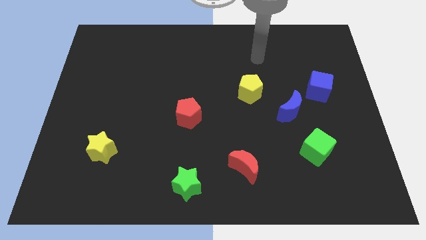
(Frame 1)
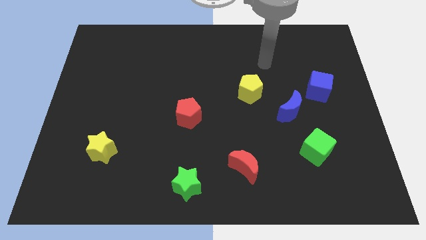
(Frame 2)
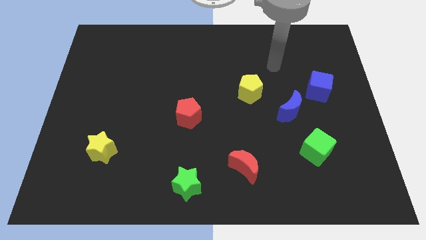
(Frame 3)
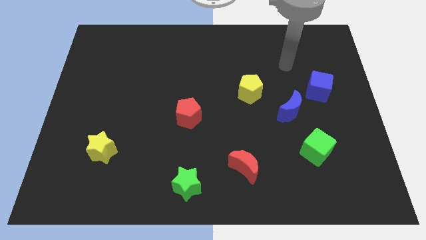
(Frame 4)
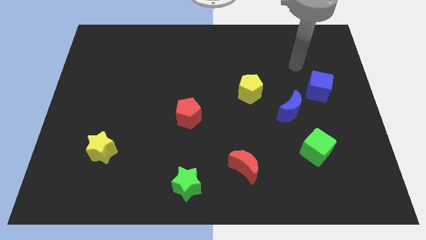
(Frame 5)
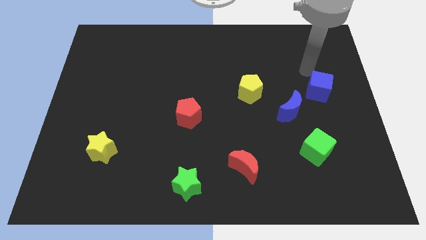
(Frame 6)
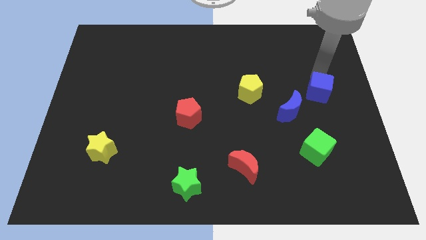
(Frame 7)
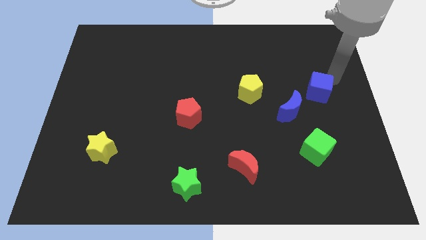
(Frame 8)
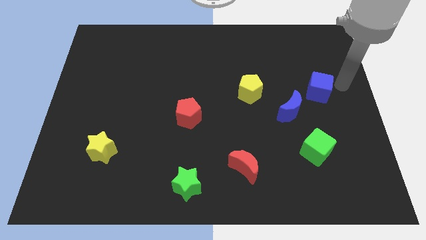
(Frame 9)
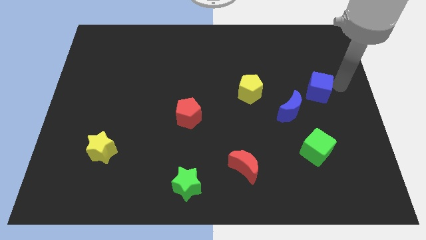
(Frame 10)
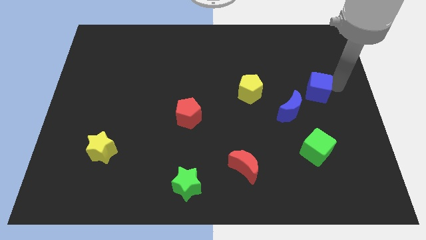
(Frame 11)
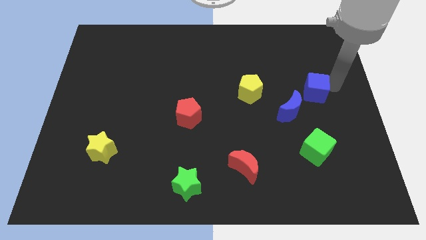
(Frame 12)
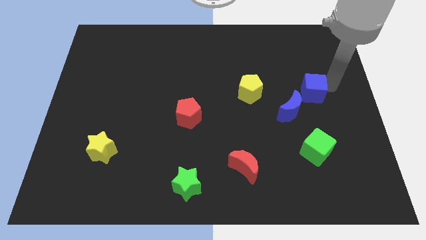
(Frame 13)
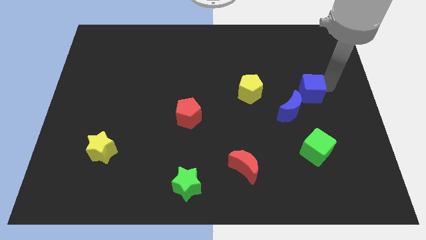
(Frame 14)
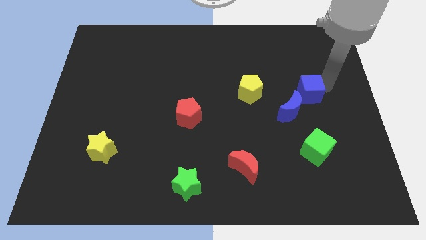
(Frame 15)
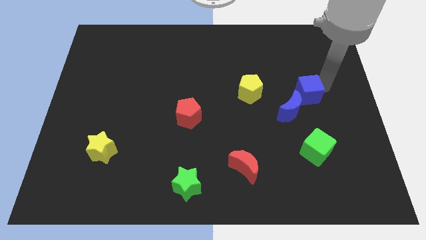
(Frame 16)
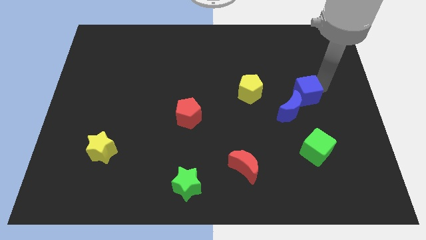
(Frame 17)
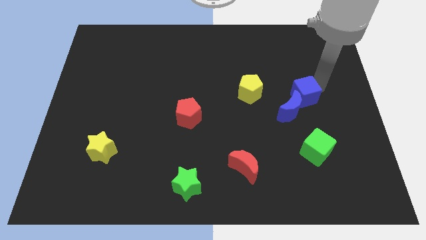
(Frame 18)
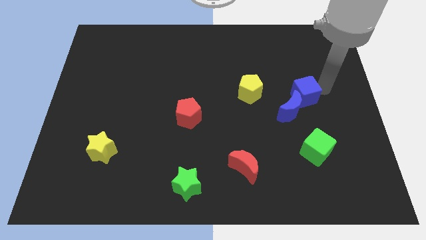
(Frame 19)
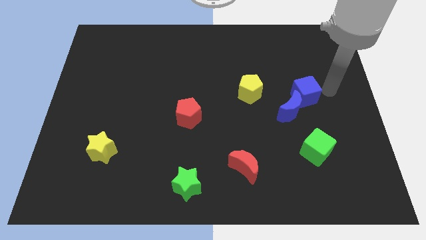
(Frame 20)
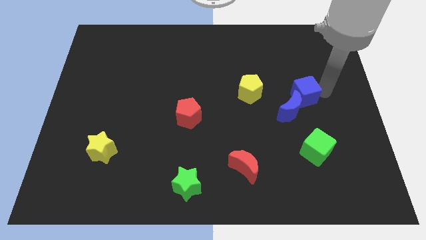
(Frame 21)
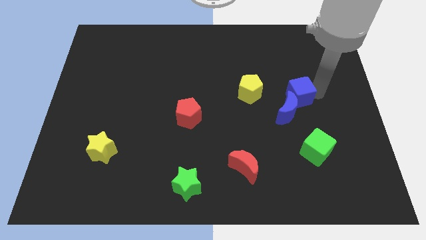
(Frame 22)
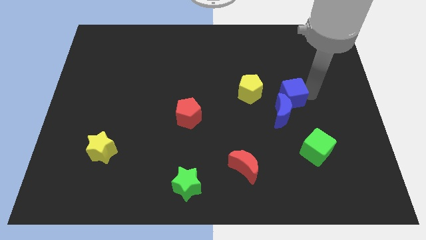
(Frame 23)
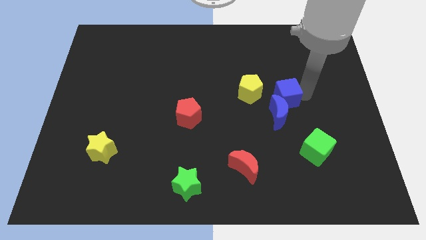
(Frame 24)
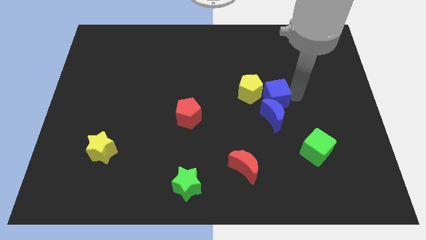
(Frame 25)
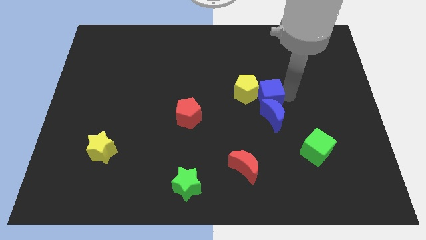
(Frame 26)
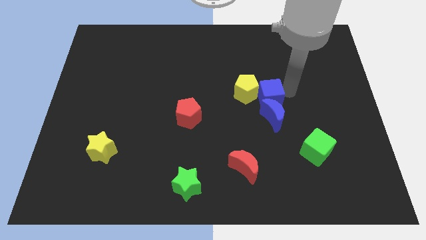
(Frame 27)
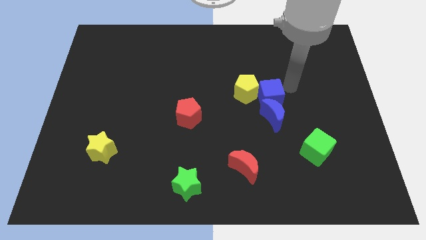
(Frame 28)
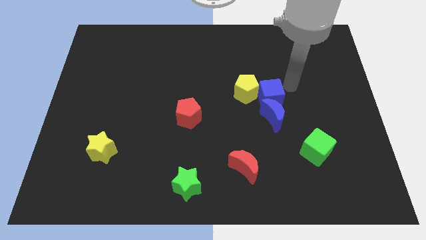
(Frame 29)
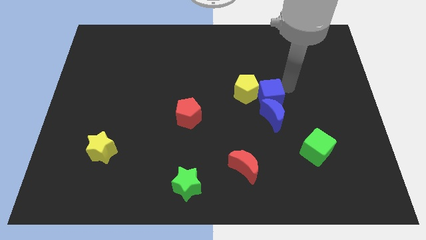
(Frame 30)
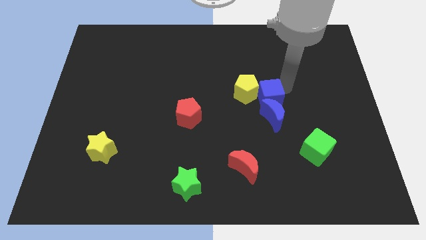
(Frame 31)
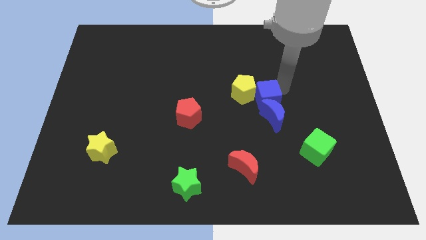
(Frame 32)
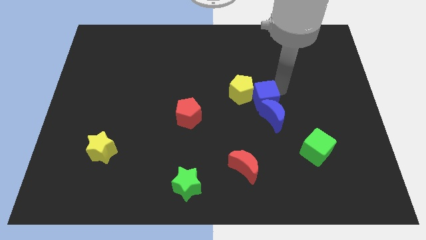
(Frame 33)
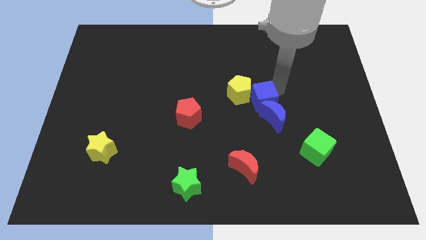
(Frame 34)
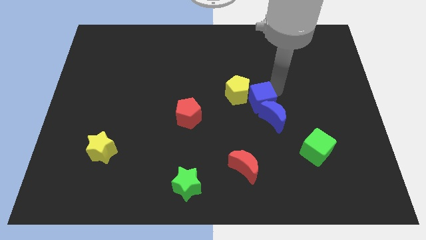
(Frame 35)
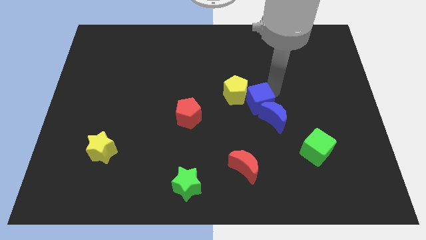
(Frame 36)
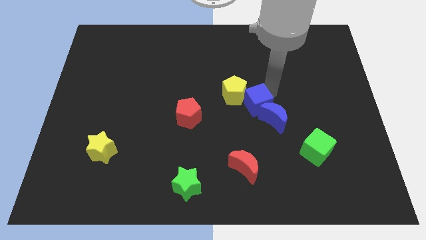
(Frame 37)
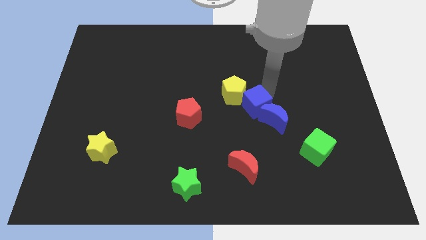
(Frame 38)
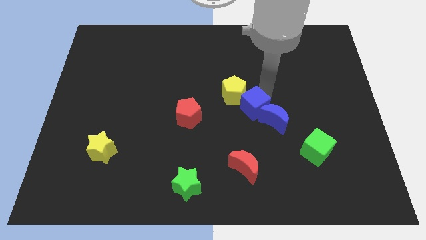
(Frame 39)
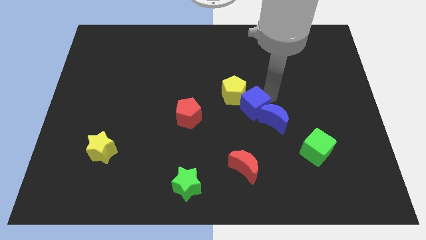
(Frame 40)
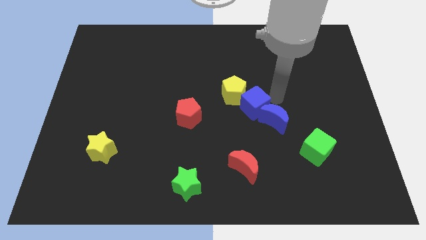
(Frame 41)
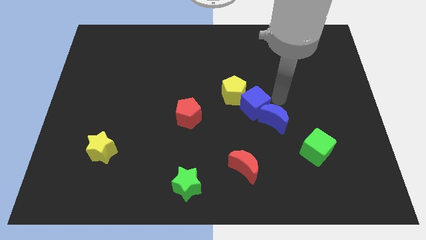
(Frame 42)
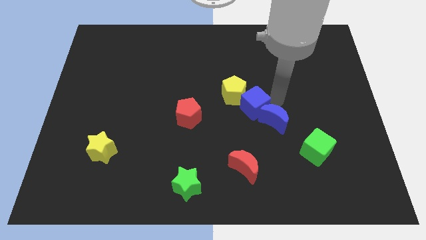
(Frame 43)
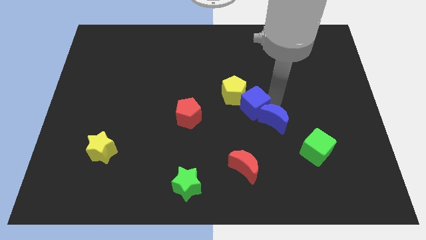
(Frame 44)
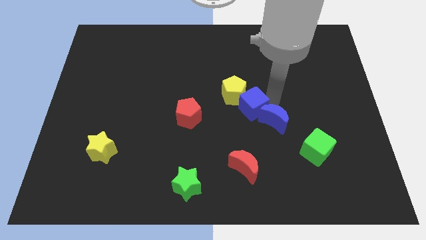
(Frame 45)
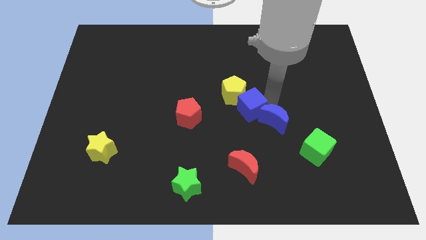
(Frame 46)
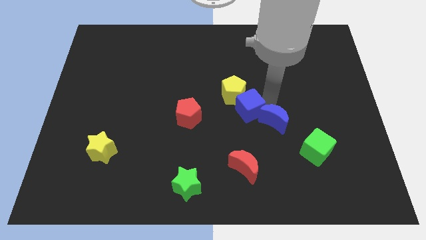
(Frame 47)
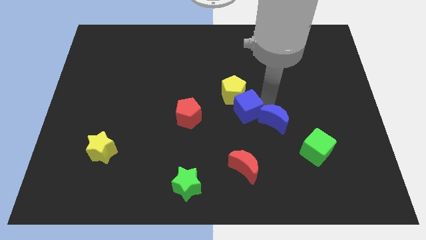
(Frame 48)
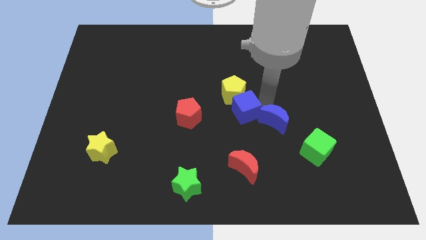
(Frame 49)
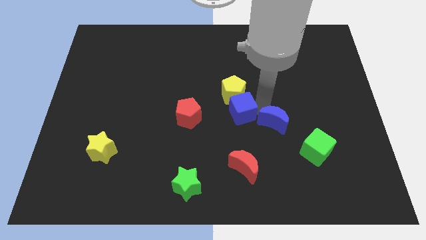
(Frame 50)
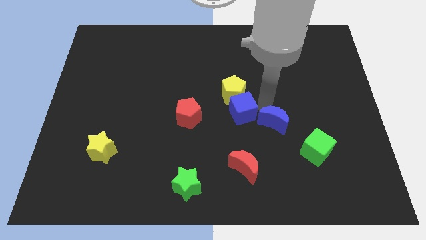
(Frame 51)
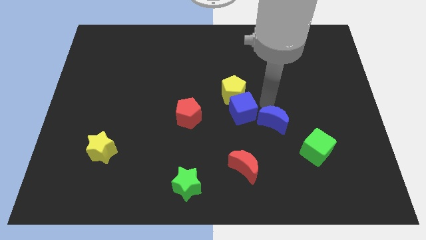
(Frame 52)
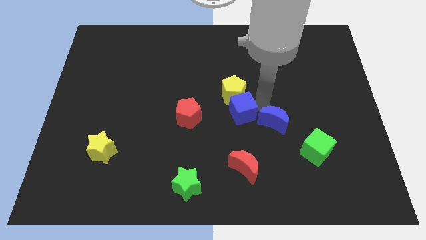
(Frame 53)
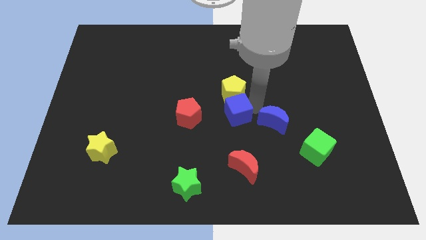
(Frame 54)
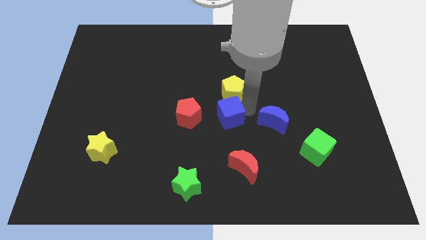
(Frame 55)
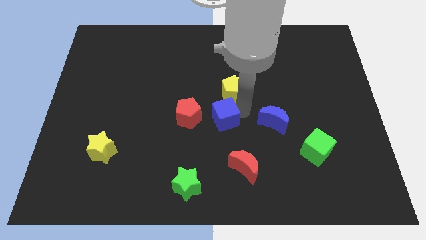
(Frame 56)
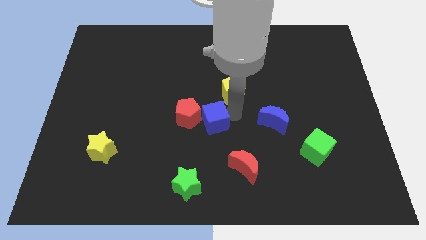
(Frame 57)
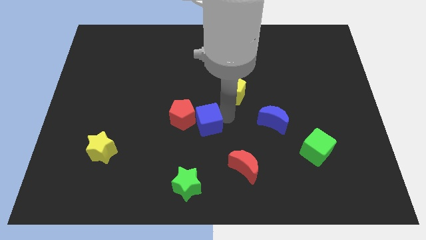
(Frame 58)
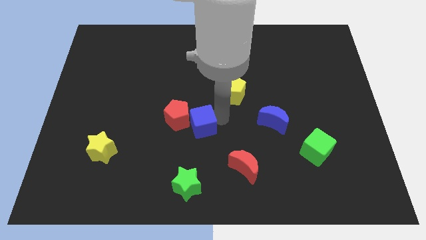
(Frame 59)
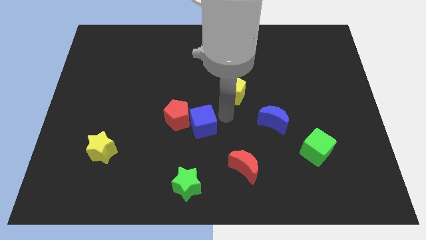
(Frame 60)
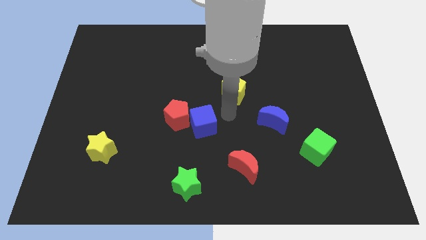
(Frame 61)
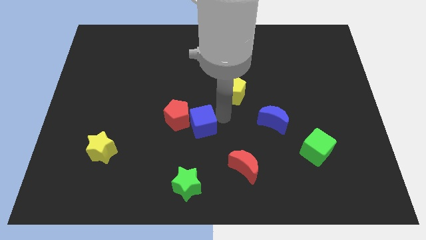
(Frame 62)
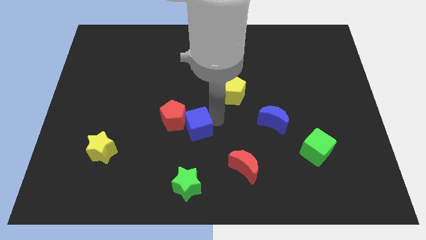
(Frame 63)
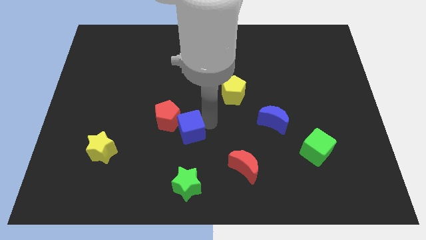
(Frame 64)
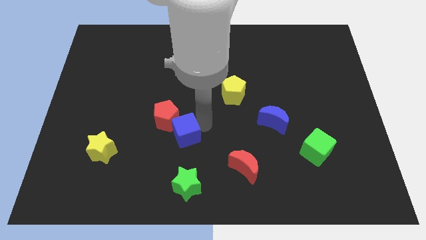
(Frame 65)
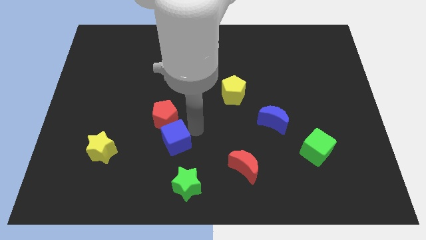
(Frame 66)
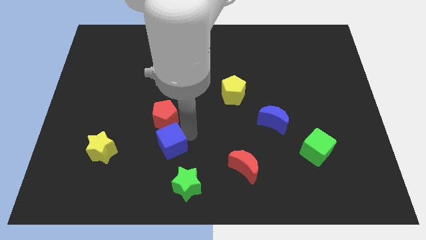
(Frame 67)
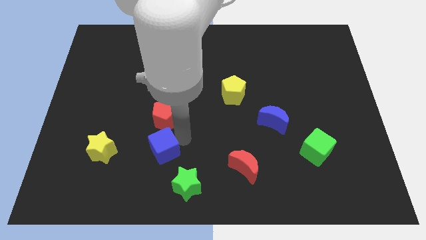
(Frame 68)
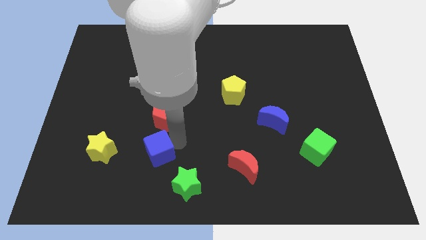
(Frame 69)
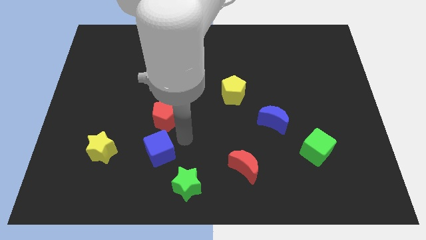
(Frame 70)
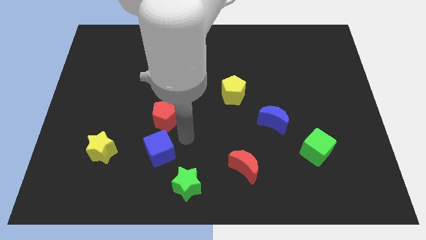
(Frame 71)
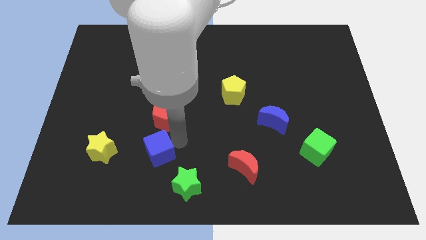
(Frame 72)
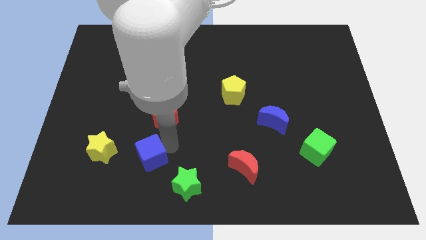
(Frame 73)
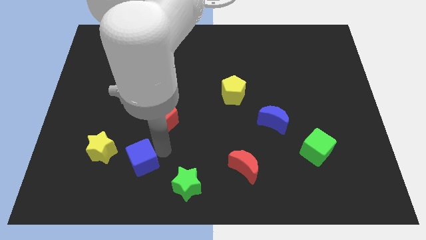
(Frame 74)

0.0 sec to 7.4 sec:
put the blue cube to the bottom right side of the yellow star
